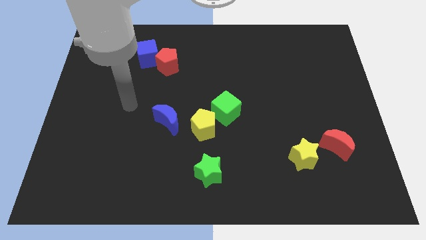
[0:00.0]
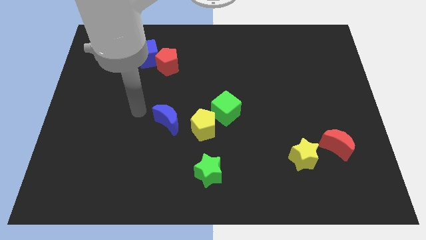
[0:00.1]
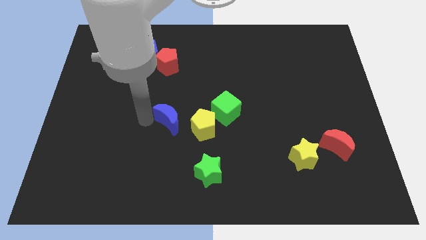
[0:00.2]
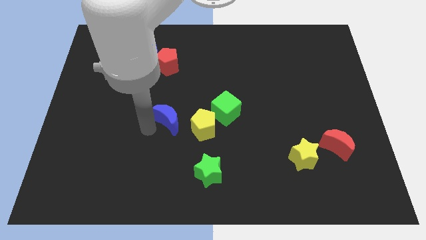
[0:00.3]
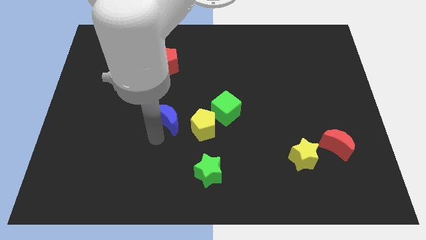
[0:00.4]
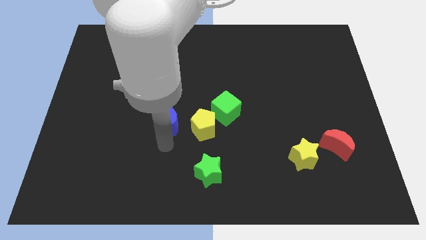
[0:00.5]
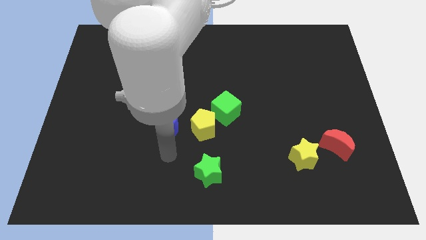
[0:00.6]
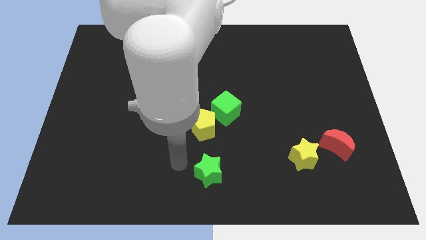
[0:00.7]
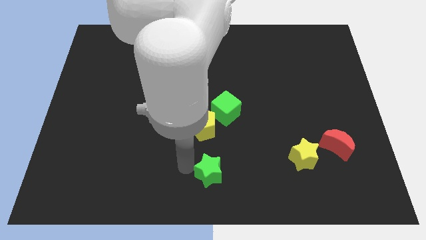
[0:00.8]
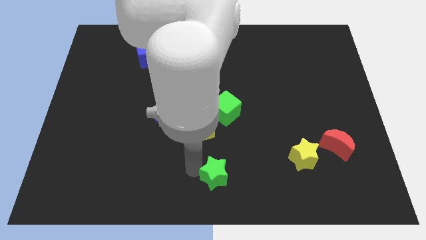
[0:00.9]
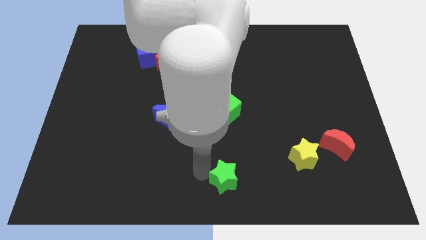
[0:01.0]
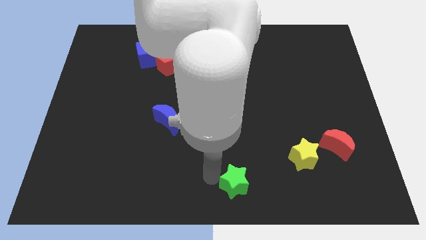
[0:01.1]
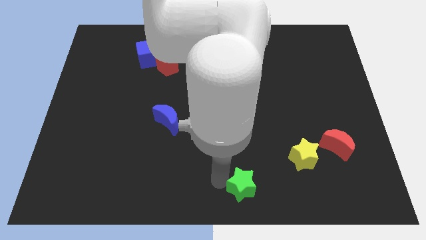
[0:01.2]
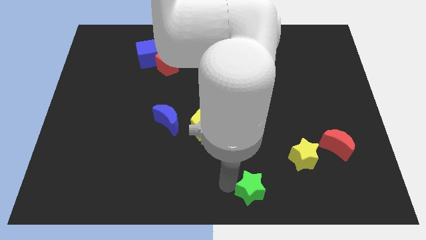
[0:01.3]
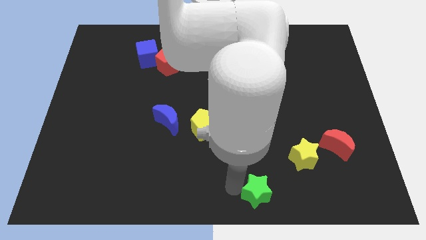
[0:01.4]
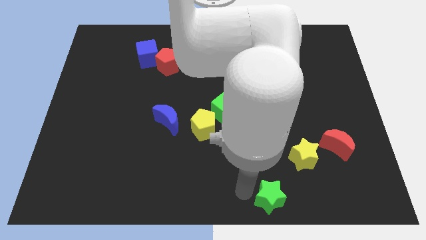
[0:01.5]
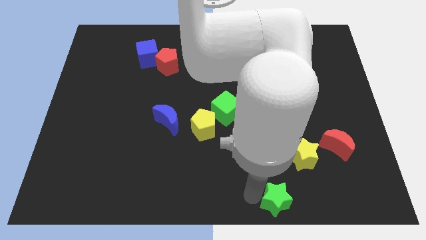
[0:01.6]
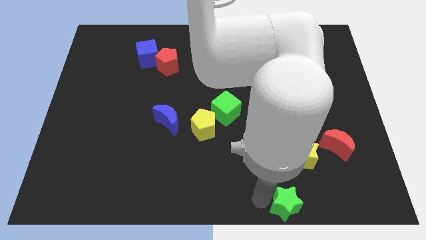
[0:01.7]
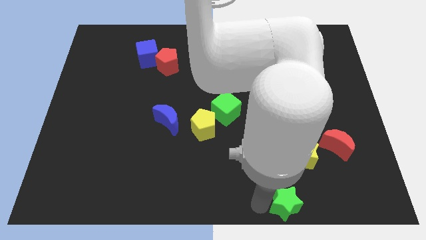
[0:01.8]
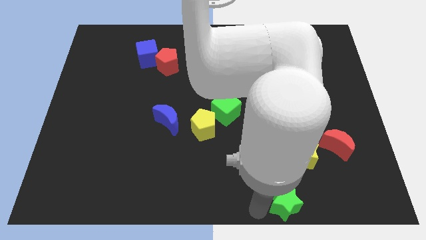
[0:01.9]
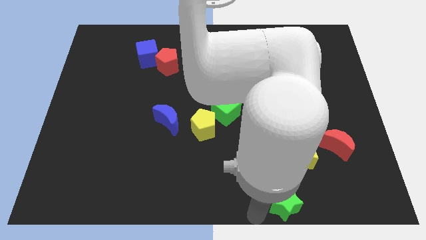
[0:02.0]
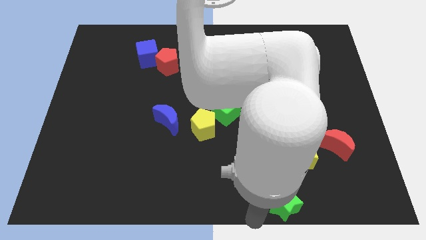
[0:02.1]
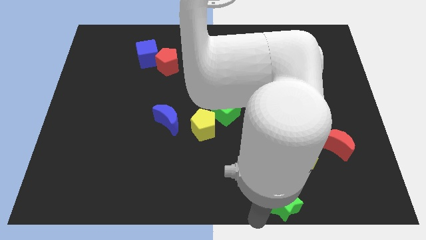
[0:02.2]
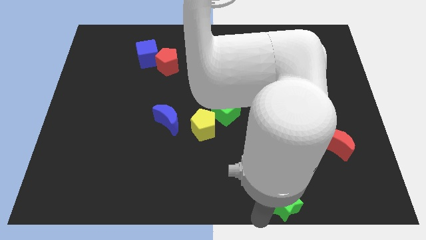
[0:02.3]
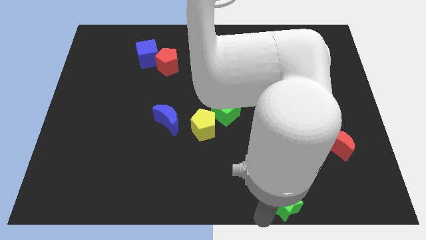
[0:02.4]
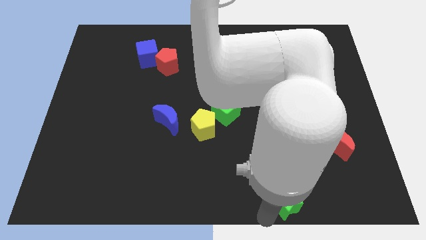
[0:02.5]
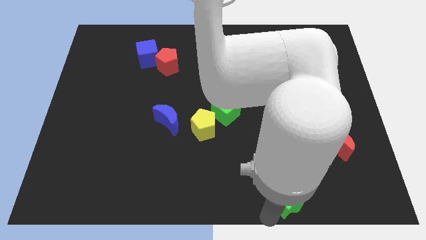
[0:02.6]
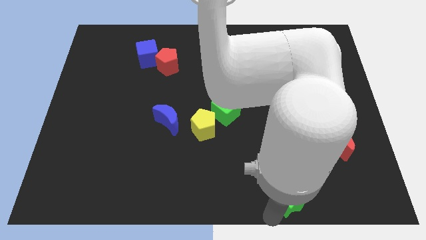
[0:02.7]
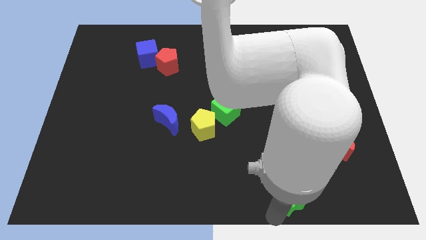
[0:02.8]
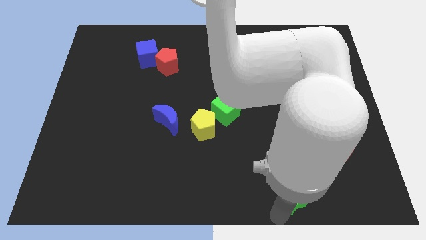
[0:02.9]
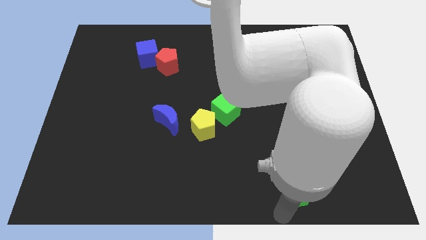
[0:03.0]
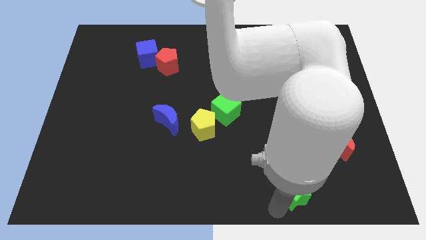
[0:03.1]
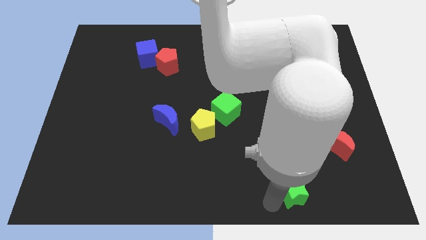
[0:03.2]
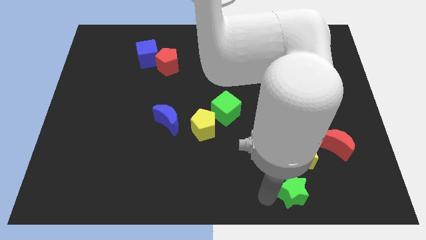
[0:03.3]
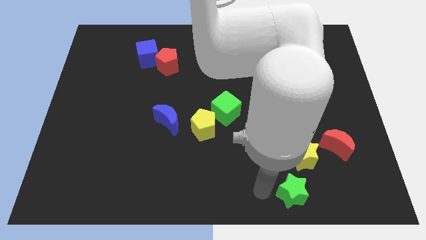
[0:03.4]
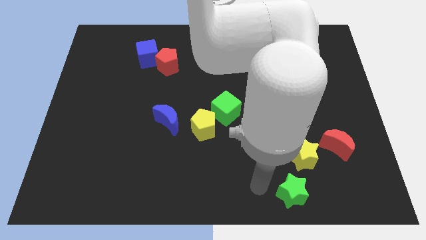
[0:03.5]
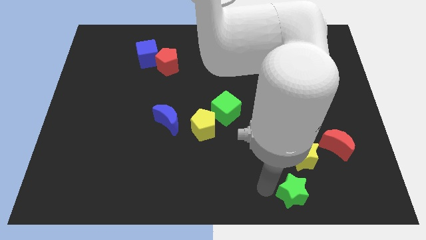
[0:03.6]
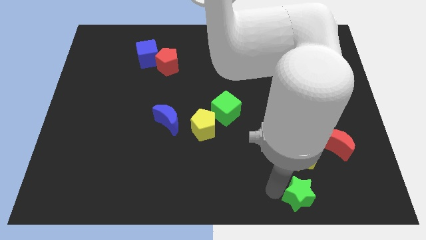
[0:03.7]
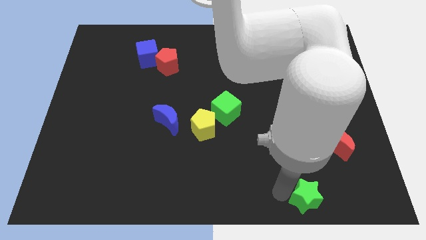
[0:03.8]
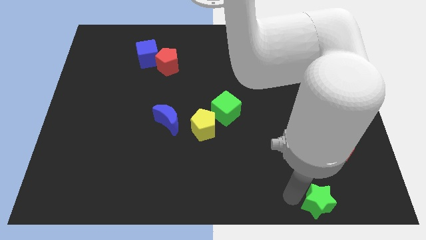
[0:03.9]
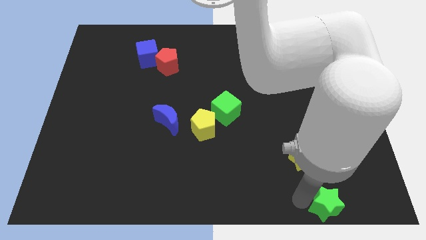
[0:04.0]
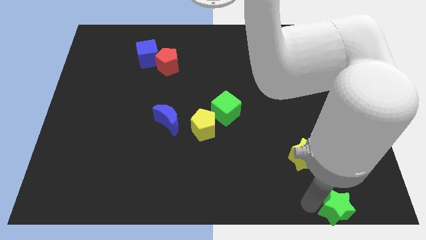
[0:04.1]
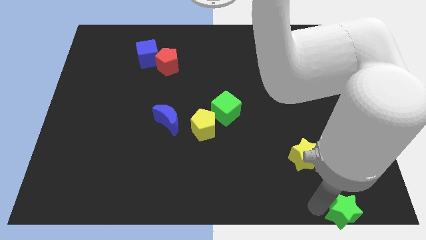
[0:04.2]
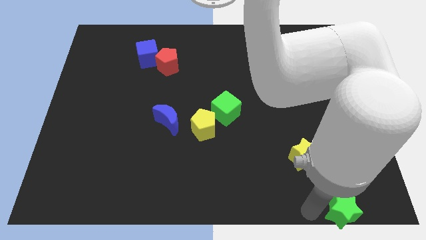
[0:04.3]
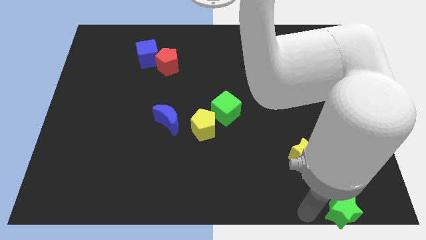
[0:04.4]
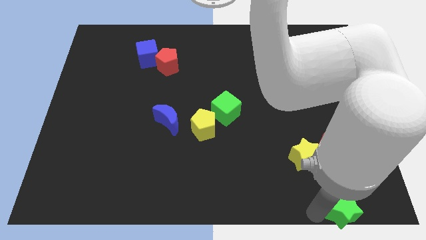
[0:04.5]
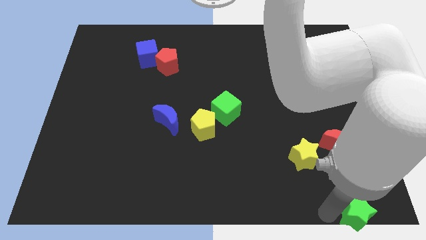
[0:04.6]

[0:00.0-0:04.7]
move the green star to the bottom right corner
